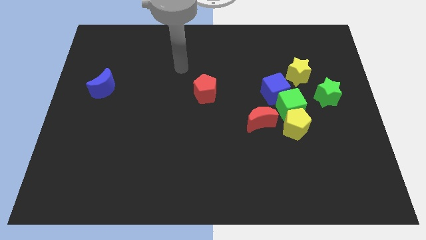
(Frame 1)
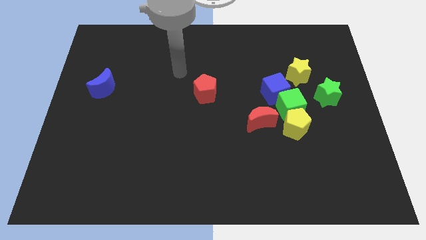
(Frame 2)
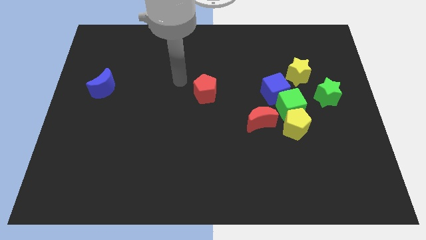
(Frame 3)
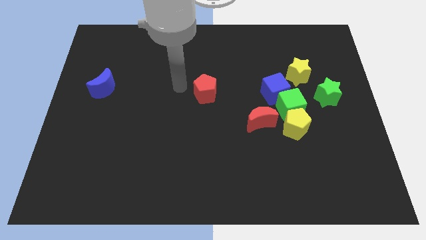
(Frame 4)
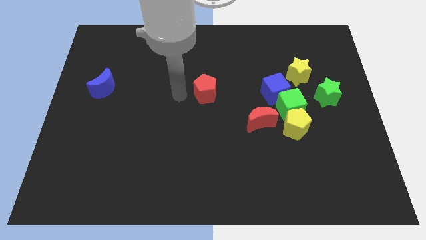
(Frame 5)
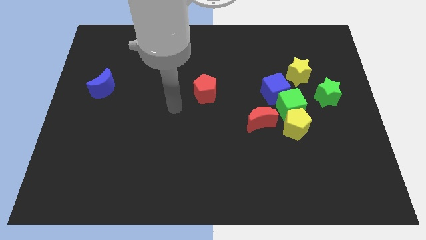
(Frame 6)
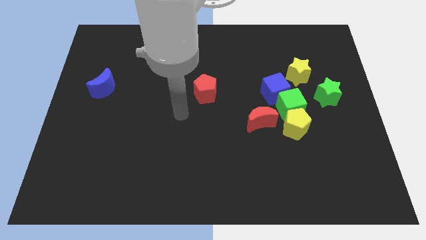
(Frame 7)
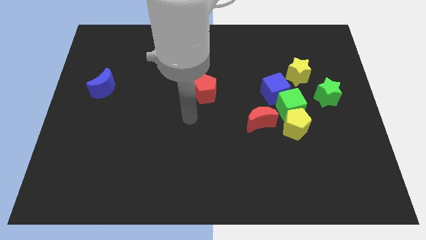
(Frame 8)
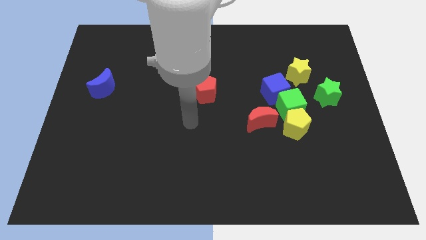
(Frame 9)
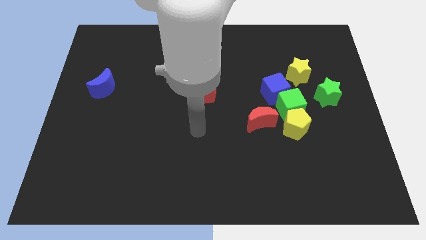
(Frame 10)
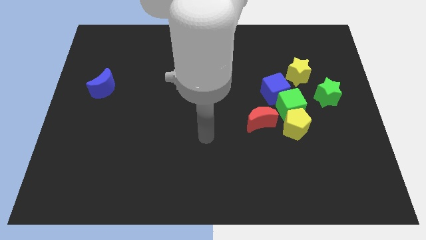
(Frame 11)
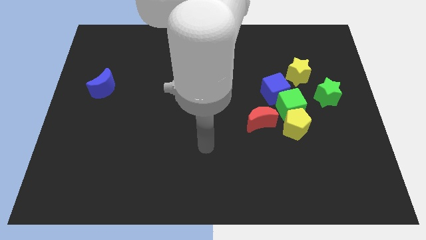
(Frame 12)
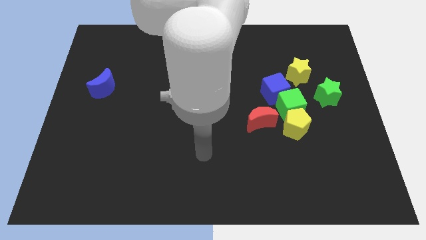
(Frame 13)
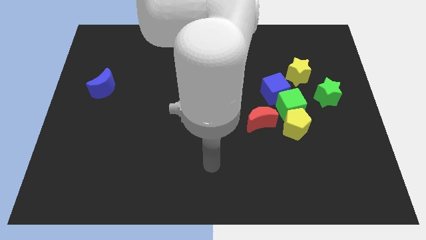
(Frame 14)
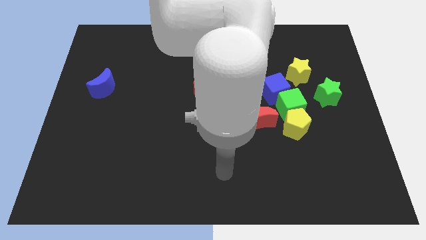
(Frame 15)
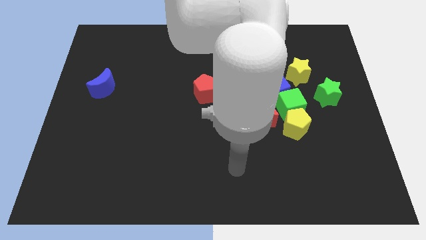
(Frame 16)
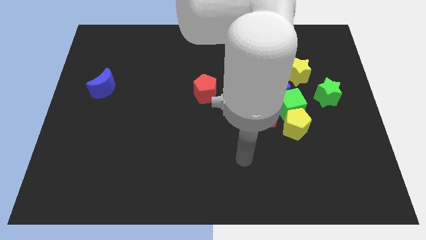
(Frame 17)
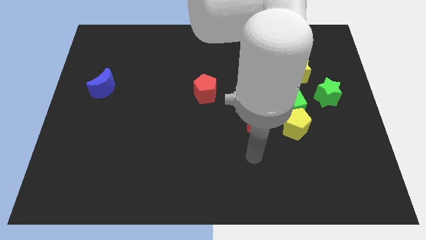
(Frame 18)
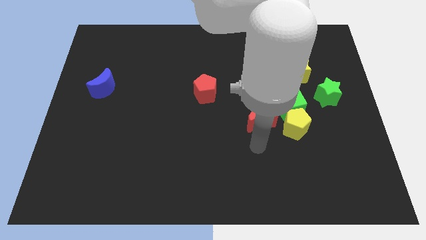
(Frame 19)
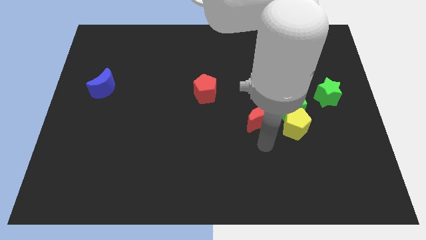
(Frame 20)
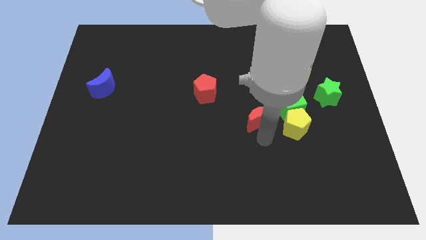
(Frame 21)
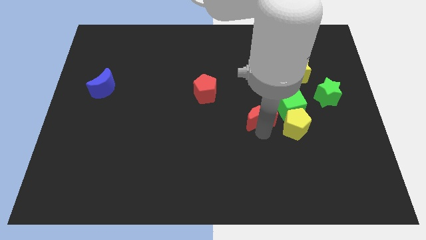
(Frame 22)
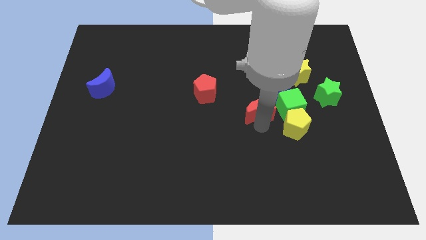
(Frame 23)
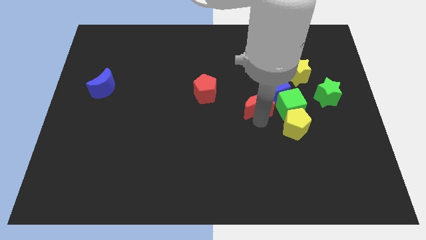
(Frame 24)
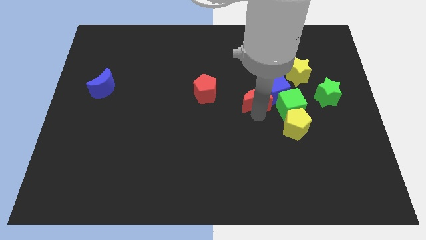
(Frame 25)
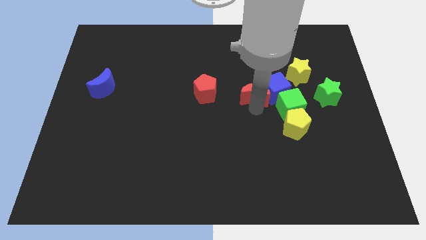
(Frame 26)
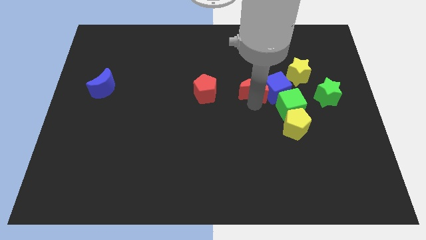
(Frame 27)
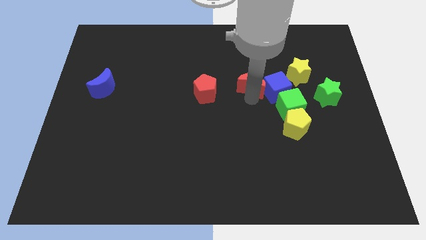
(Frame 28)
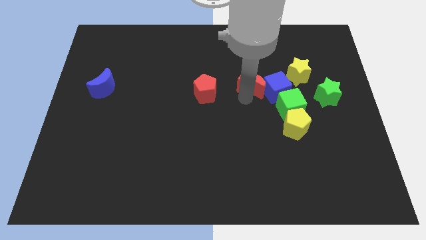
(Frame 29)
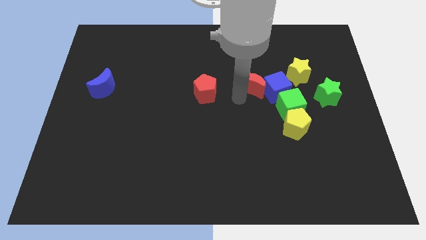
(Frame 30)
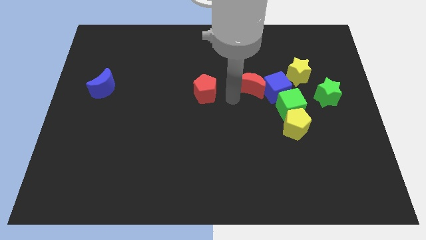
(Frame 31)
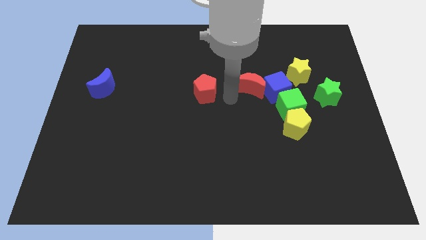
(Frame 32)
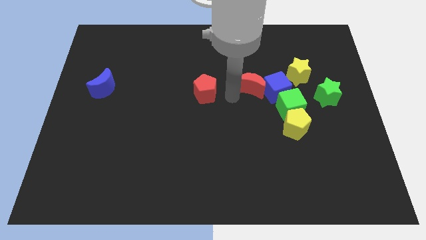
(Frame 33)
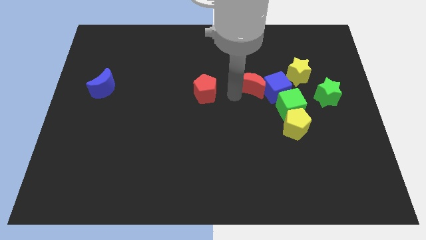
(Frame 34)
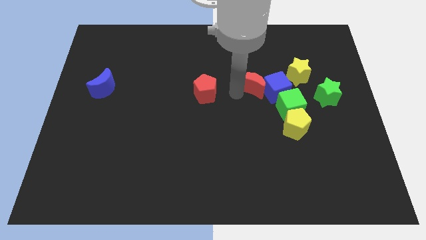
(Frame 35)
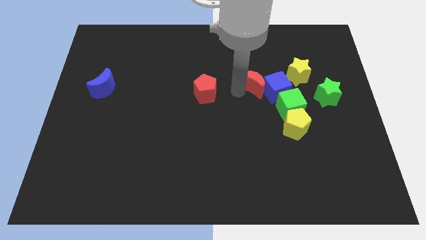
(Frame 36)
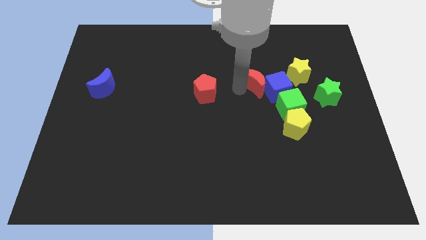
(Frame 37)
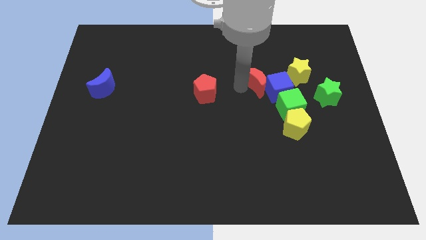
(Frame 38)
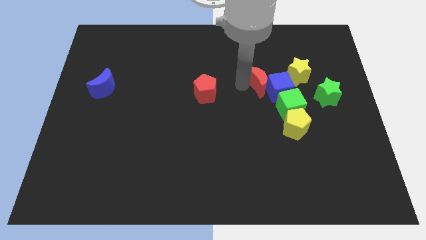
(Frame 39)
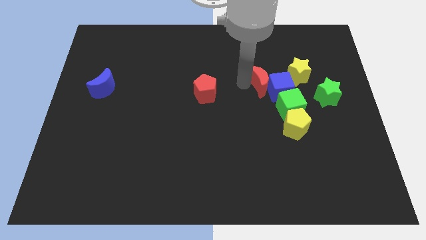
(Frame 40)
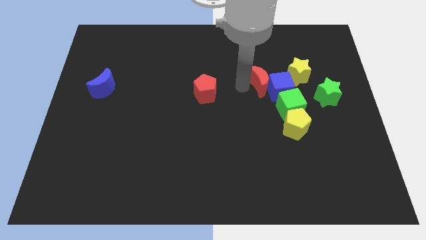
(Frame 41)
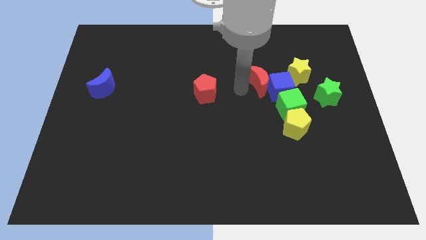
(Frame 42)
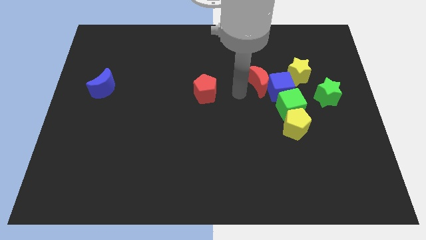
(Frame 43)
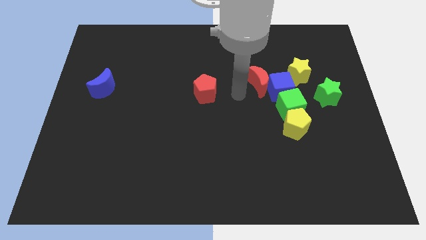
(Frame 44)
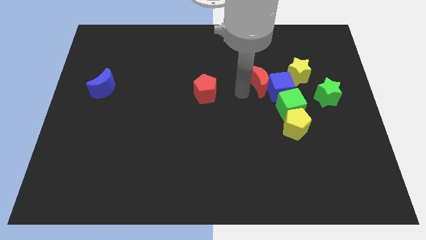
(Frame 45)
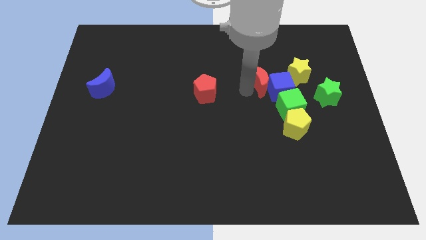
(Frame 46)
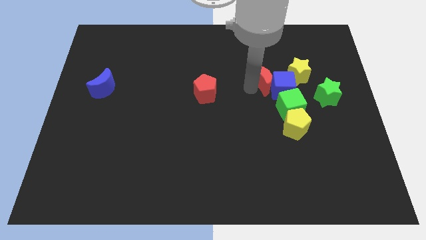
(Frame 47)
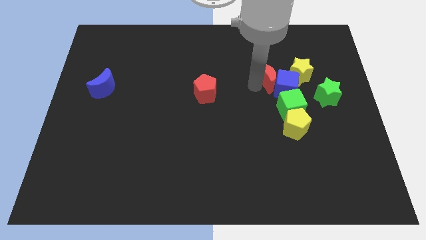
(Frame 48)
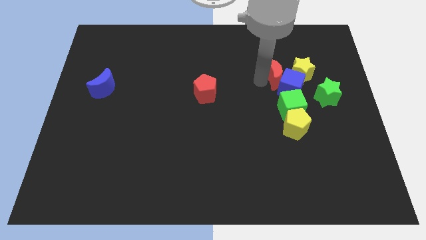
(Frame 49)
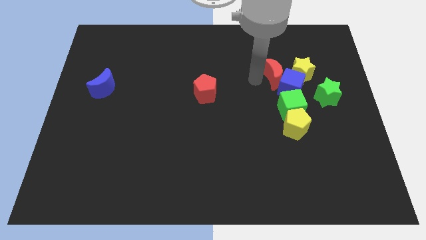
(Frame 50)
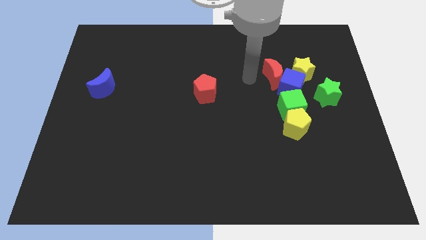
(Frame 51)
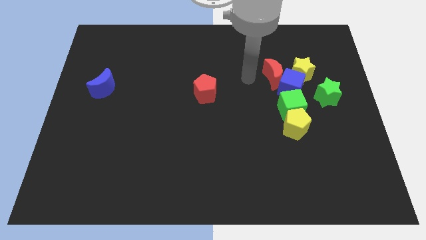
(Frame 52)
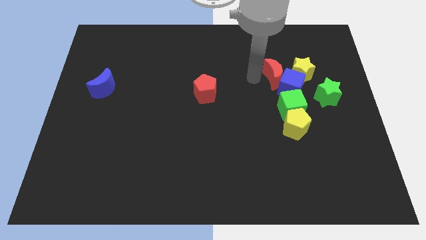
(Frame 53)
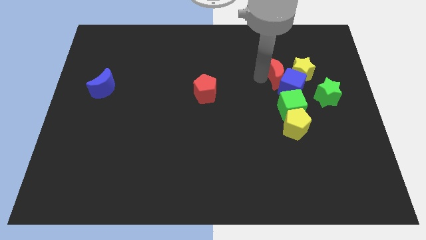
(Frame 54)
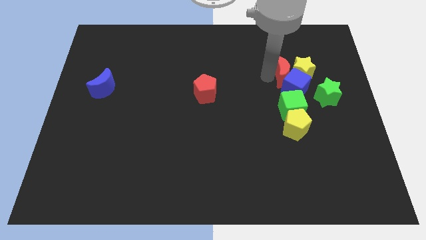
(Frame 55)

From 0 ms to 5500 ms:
push the red moon to the yellow star

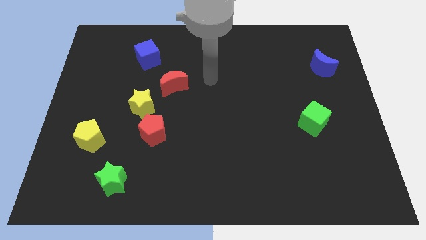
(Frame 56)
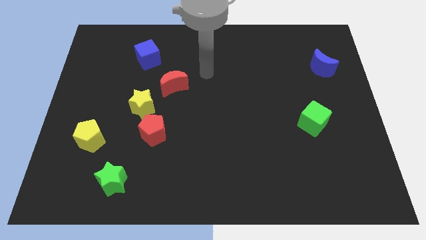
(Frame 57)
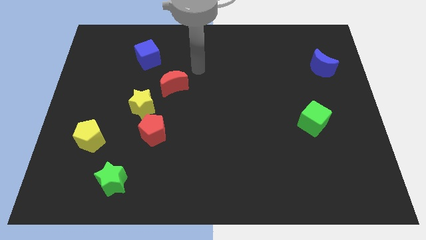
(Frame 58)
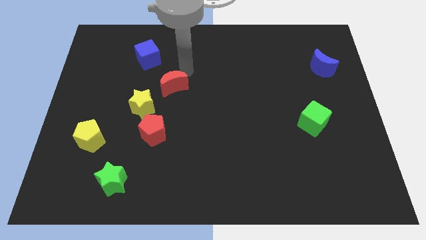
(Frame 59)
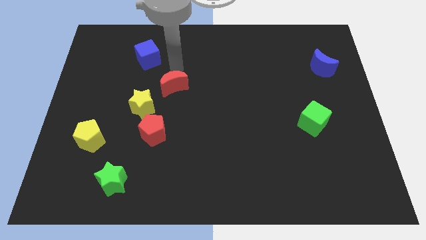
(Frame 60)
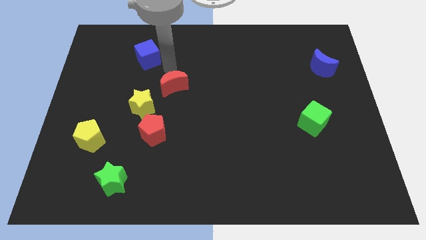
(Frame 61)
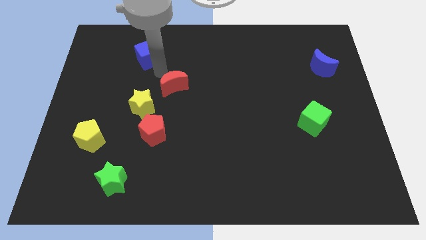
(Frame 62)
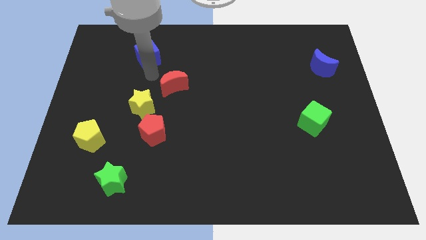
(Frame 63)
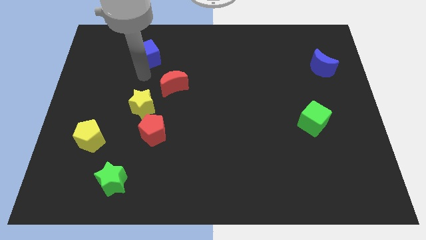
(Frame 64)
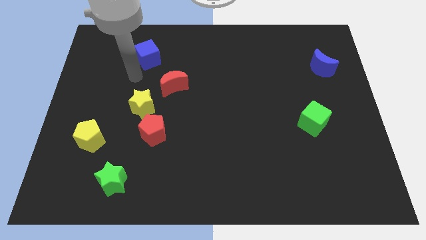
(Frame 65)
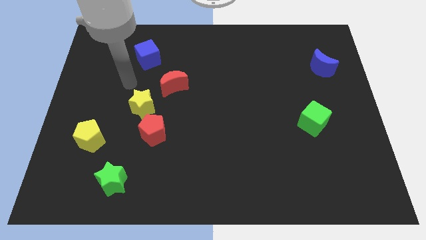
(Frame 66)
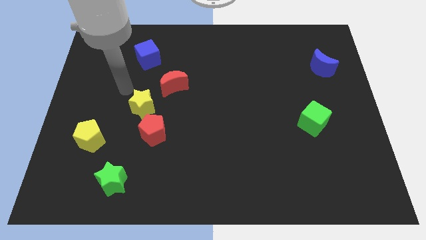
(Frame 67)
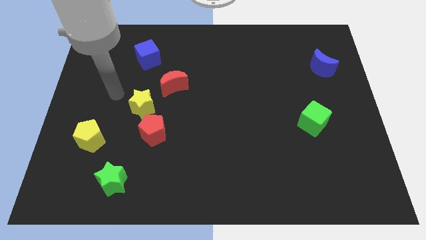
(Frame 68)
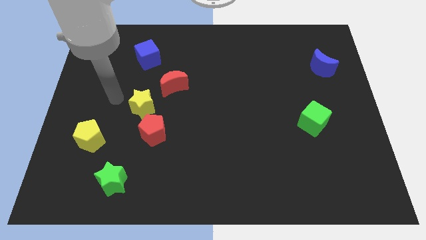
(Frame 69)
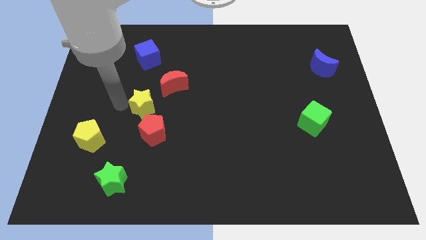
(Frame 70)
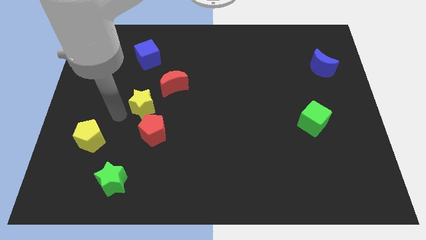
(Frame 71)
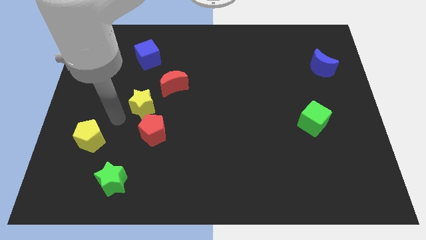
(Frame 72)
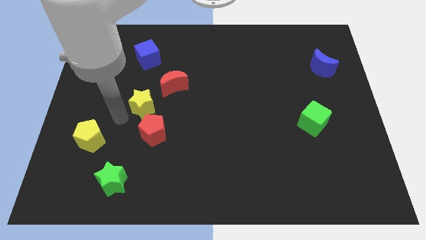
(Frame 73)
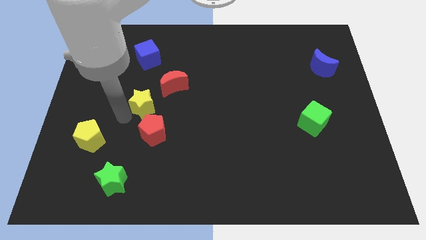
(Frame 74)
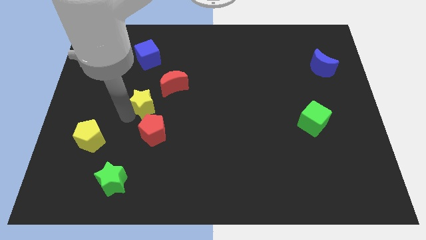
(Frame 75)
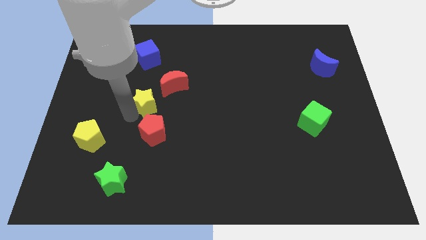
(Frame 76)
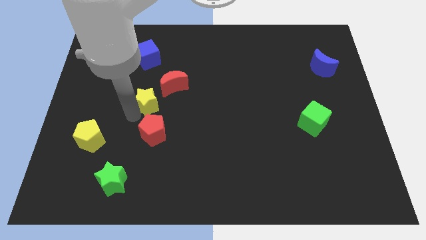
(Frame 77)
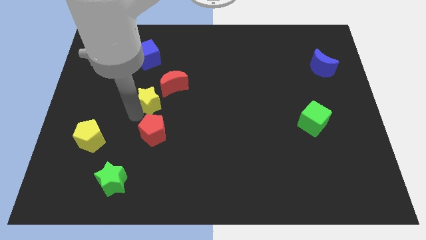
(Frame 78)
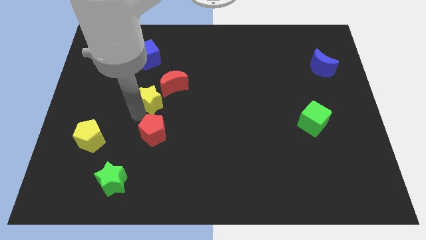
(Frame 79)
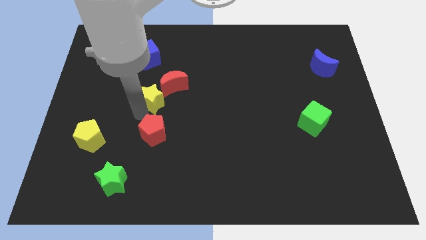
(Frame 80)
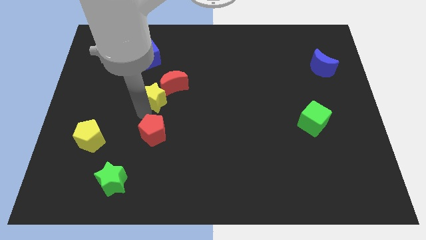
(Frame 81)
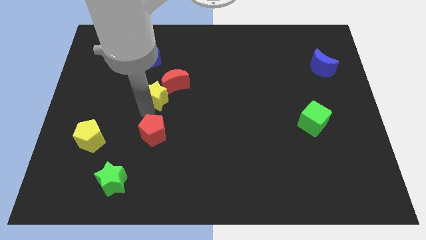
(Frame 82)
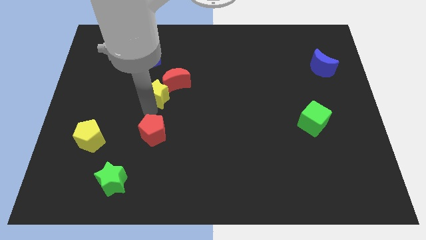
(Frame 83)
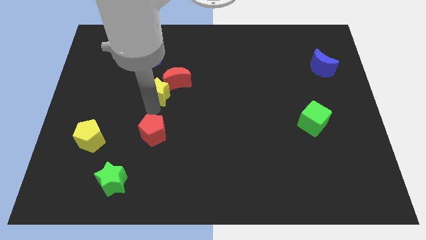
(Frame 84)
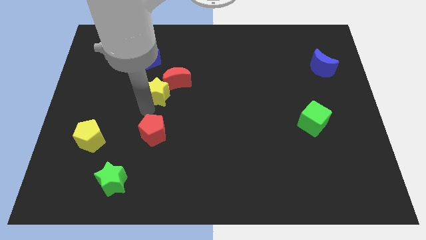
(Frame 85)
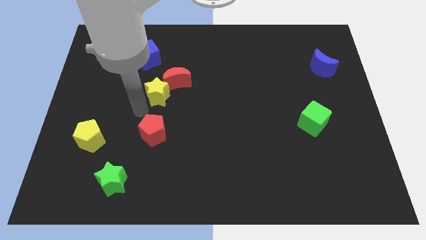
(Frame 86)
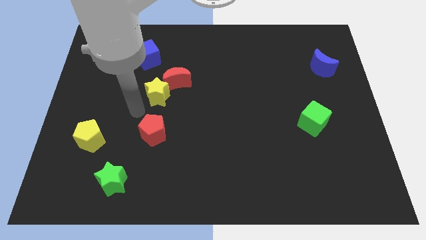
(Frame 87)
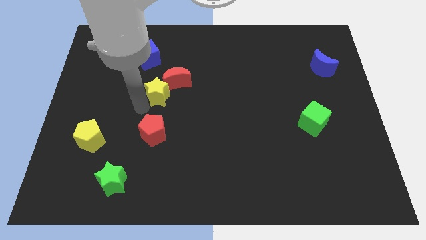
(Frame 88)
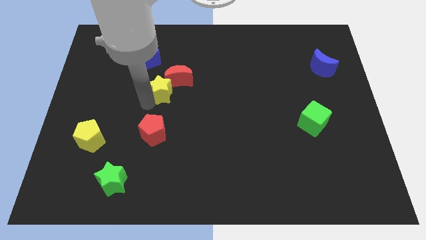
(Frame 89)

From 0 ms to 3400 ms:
slide the yellow star next to the red moon
